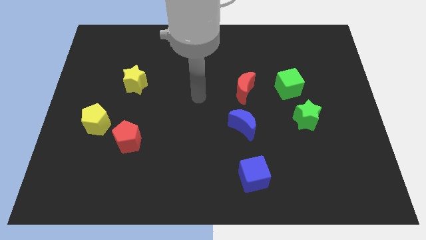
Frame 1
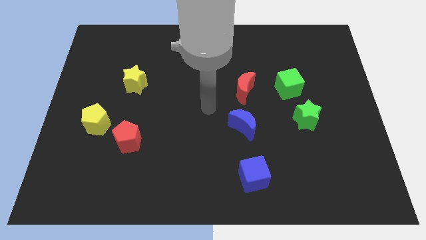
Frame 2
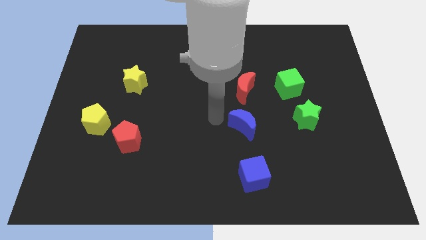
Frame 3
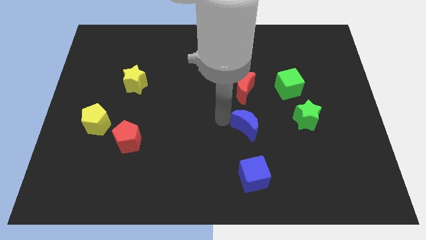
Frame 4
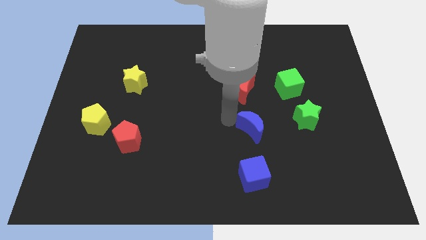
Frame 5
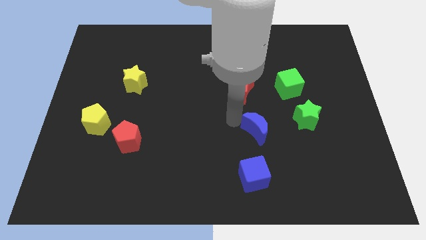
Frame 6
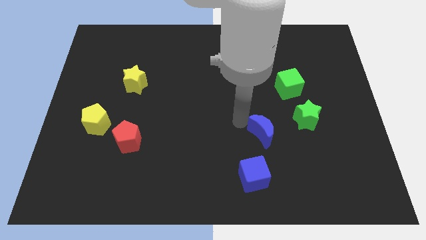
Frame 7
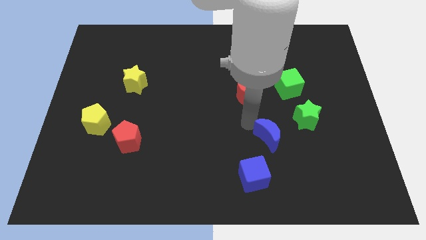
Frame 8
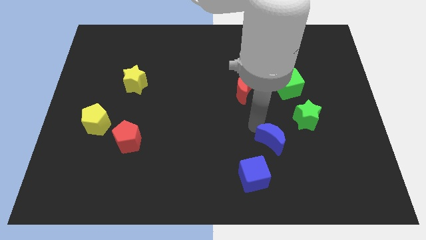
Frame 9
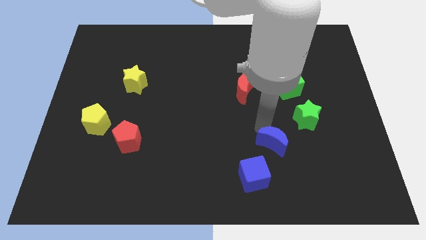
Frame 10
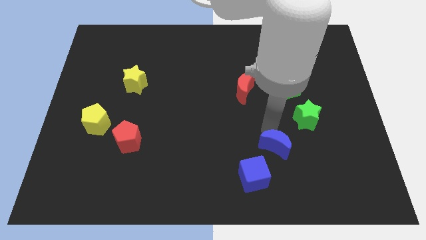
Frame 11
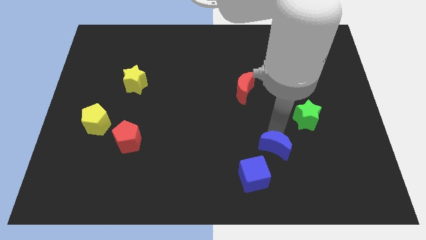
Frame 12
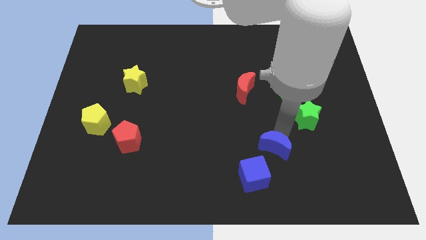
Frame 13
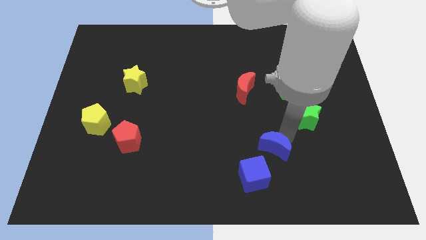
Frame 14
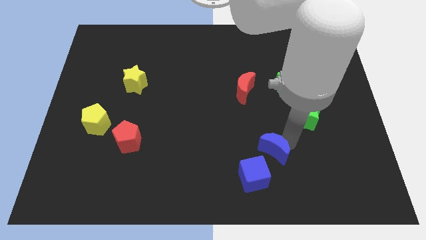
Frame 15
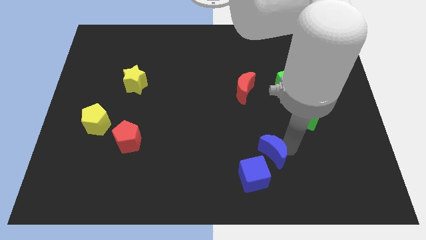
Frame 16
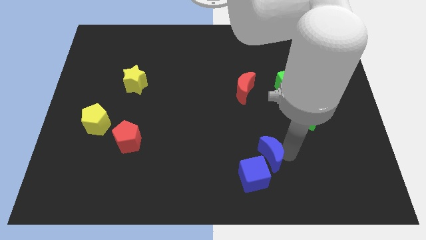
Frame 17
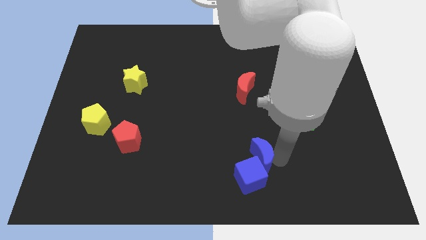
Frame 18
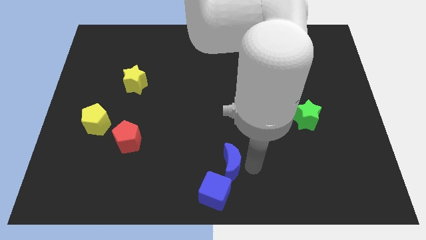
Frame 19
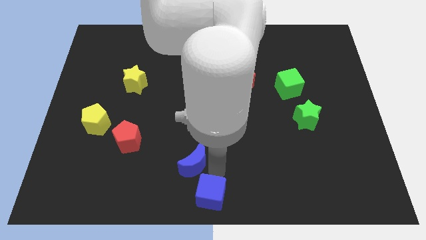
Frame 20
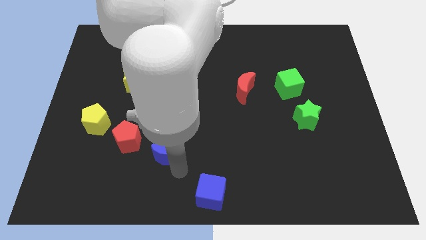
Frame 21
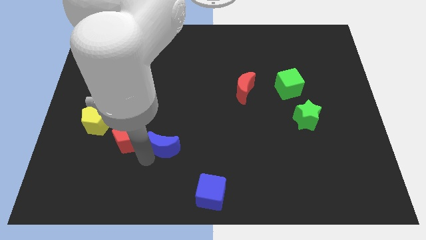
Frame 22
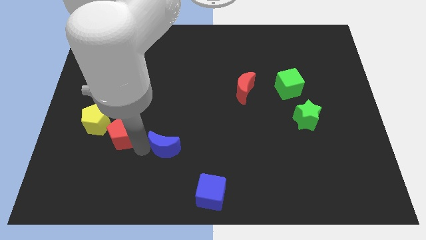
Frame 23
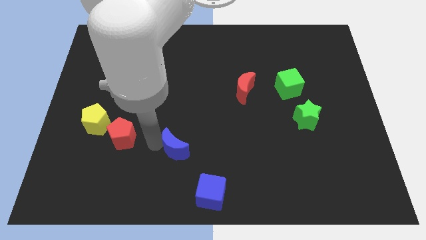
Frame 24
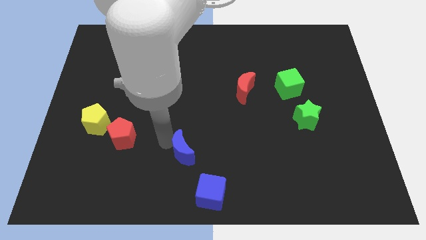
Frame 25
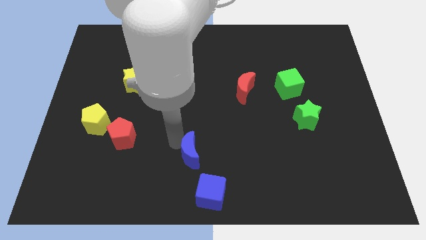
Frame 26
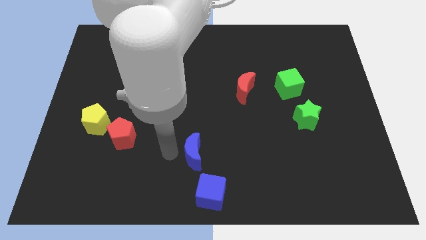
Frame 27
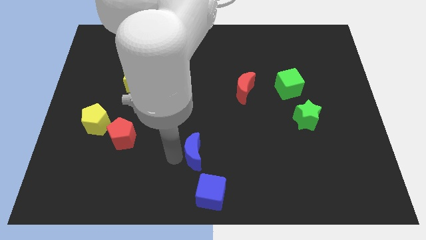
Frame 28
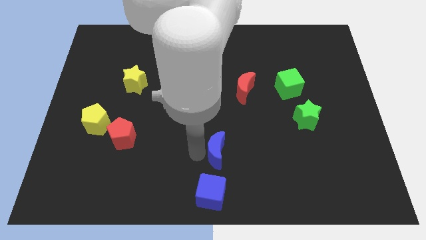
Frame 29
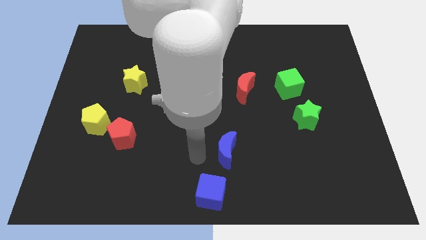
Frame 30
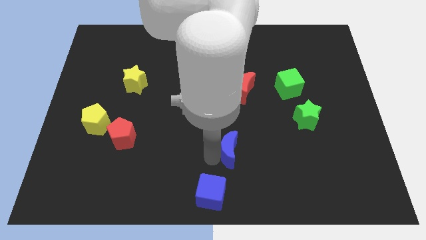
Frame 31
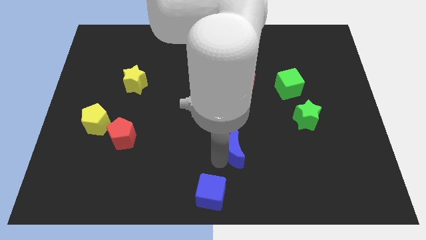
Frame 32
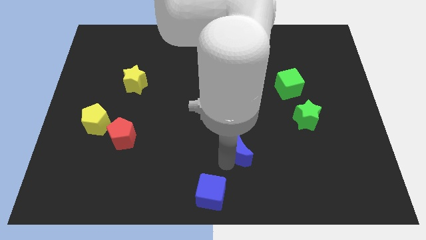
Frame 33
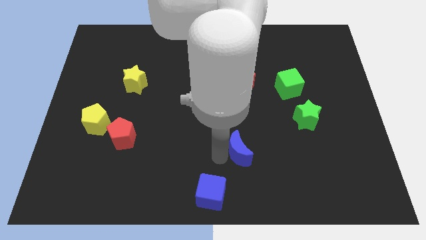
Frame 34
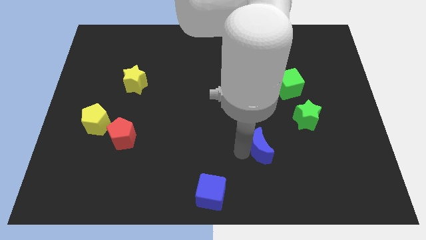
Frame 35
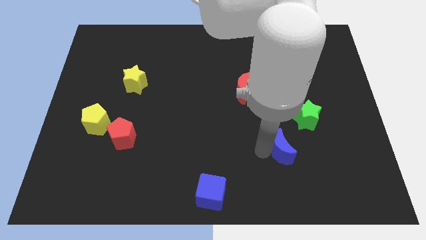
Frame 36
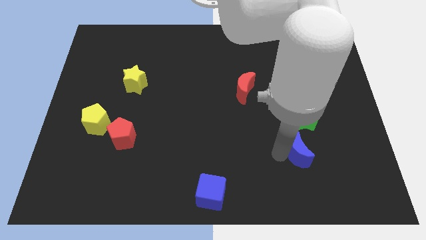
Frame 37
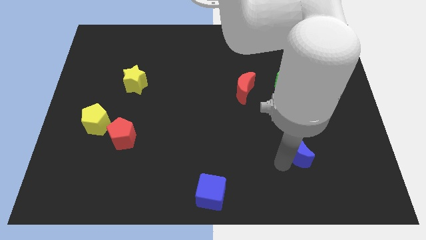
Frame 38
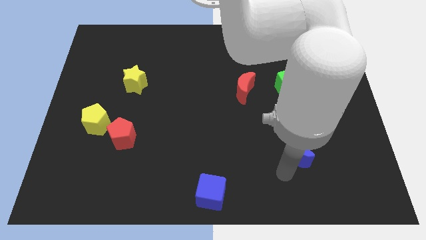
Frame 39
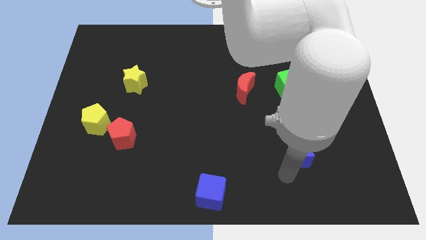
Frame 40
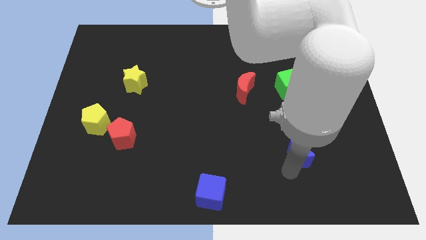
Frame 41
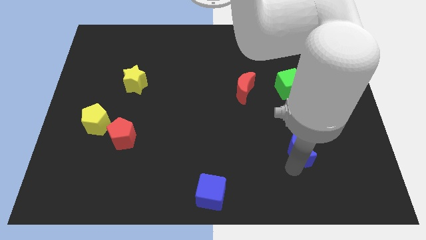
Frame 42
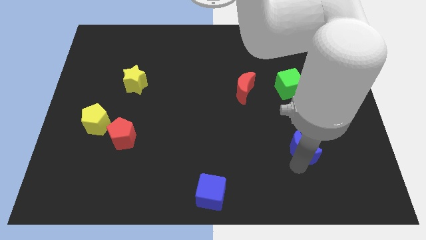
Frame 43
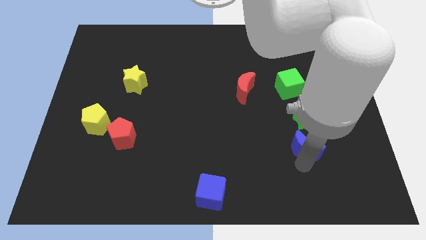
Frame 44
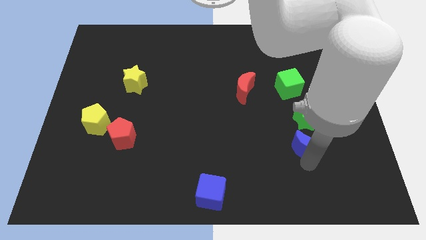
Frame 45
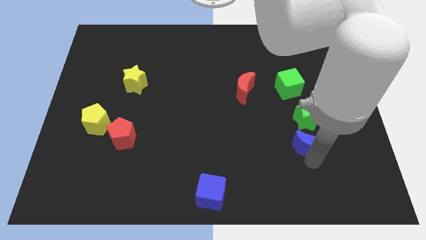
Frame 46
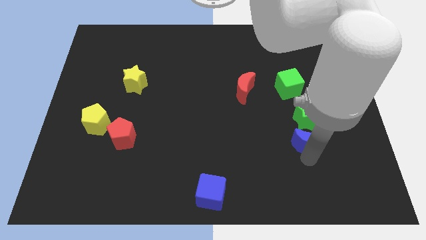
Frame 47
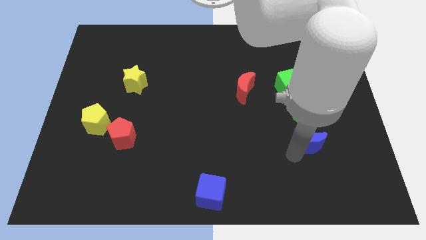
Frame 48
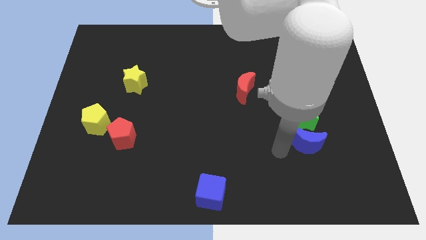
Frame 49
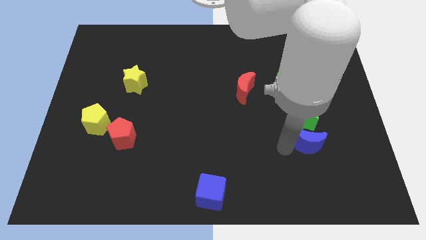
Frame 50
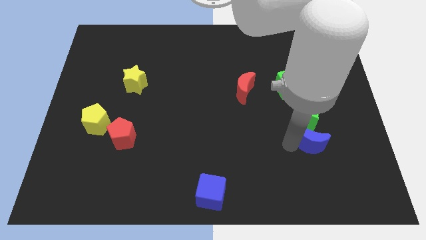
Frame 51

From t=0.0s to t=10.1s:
push the blue moon diagonally down and to the right of the green star

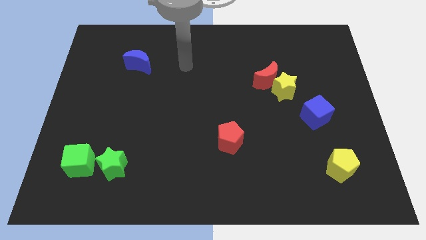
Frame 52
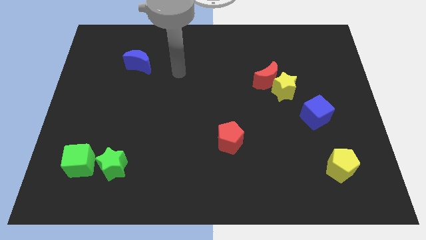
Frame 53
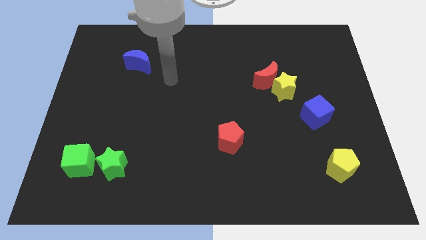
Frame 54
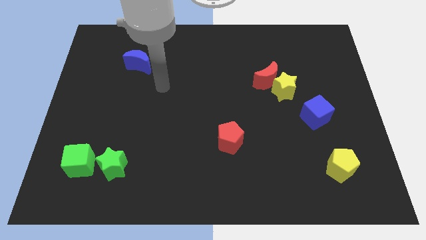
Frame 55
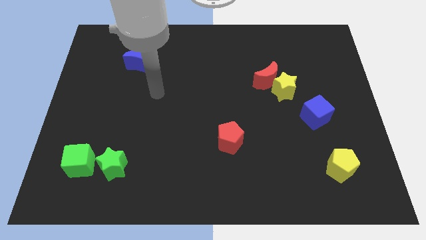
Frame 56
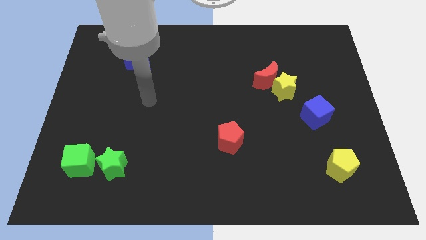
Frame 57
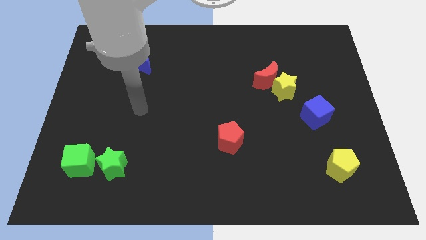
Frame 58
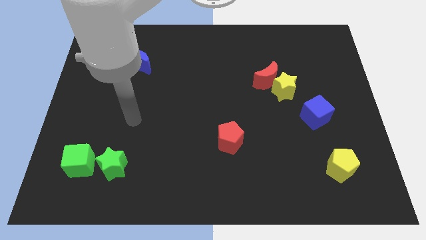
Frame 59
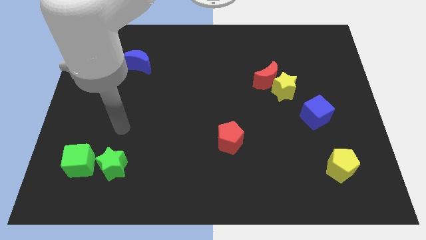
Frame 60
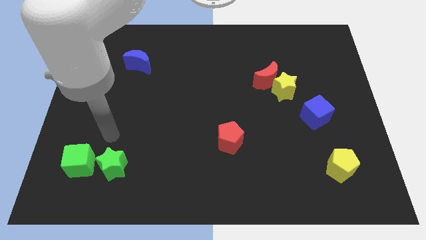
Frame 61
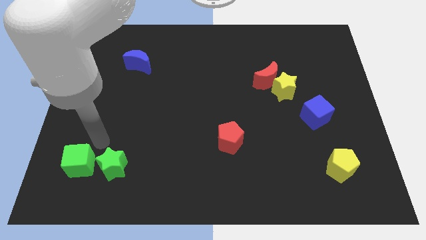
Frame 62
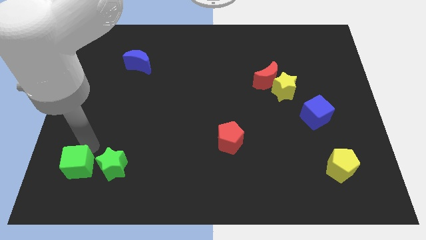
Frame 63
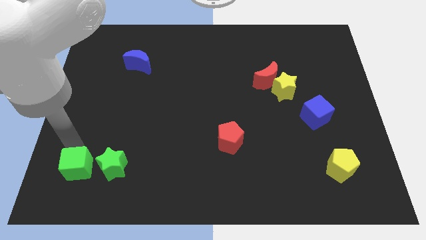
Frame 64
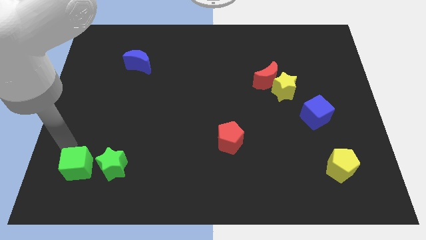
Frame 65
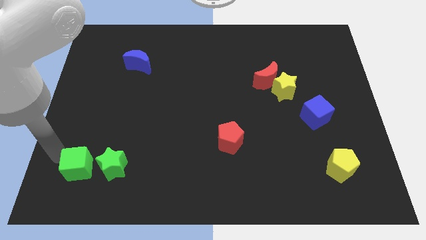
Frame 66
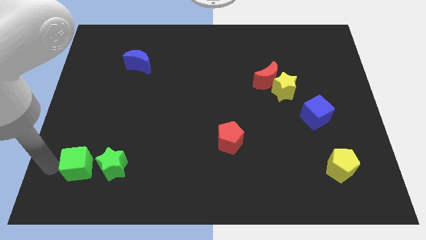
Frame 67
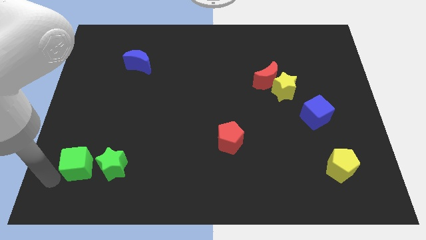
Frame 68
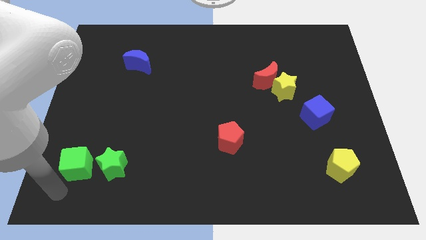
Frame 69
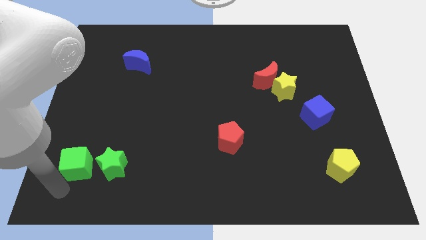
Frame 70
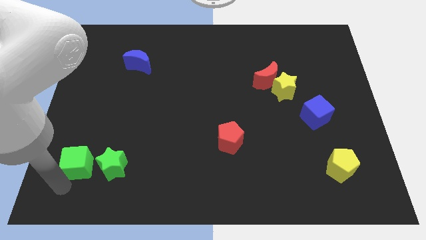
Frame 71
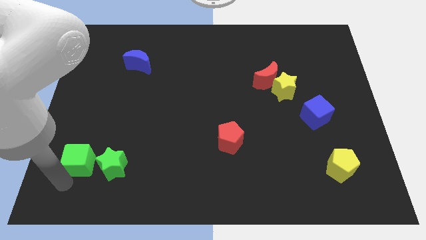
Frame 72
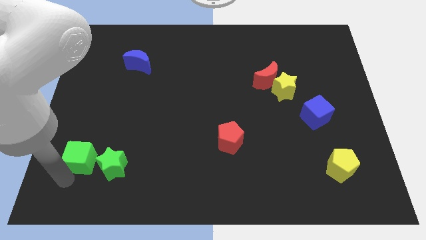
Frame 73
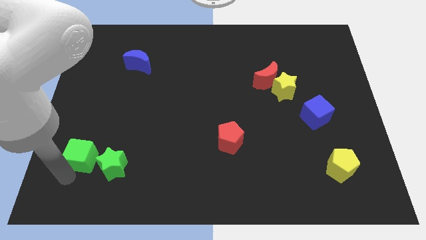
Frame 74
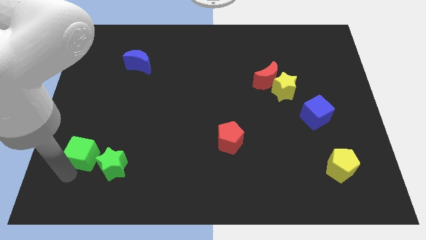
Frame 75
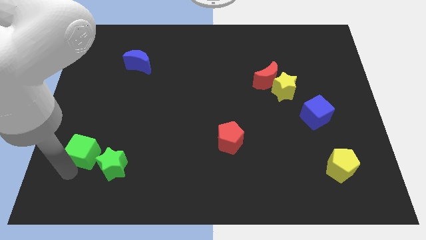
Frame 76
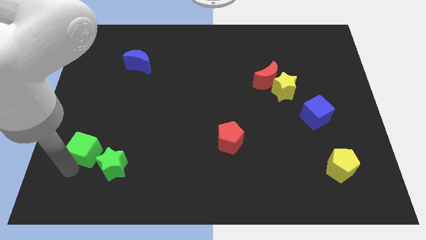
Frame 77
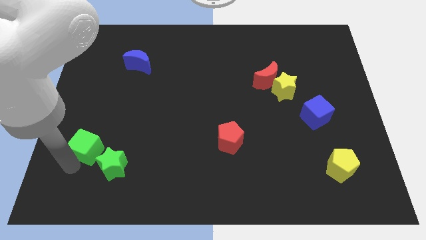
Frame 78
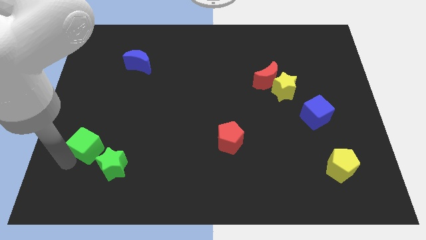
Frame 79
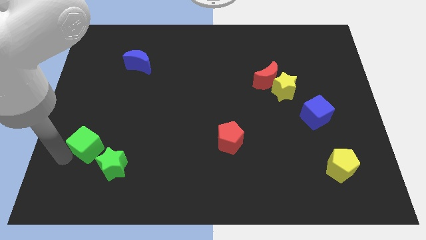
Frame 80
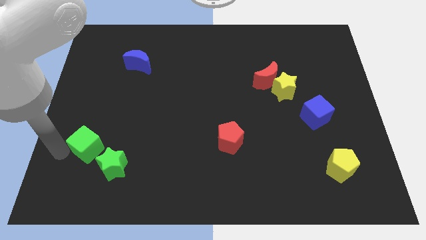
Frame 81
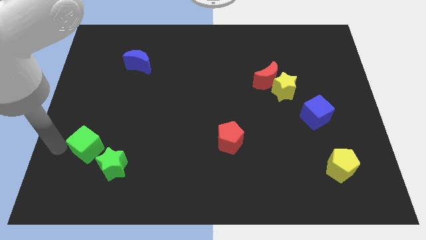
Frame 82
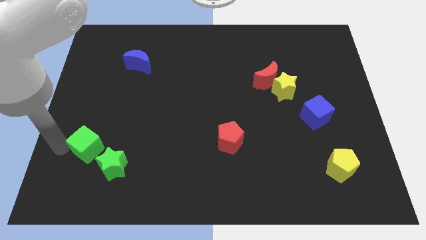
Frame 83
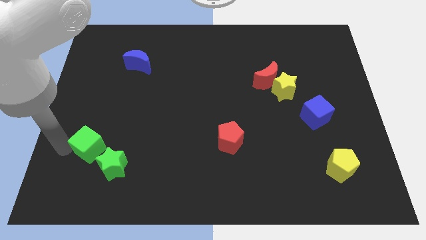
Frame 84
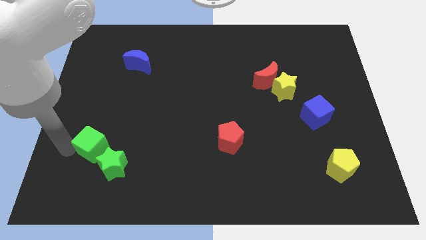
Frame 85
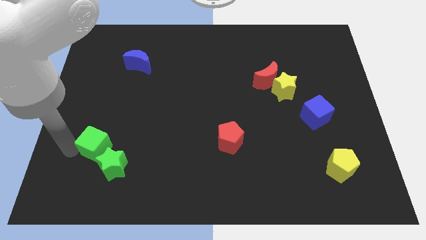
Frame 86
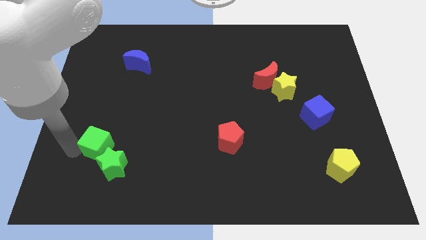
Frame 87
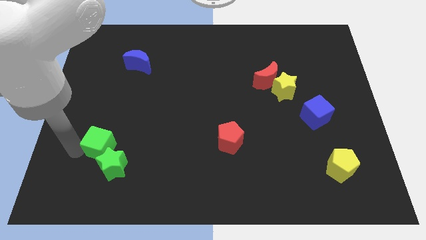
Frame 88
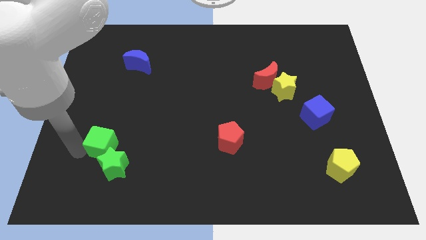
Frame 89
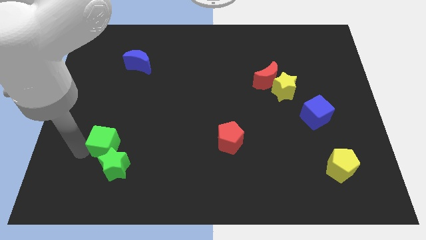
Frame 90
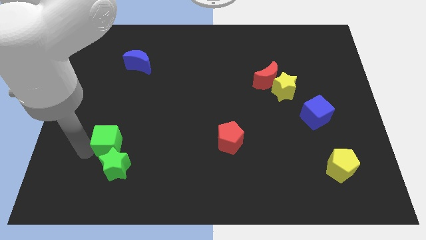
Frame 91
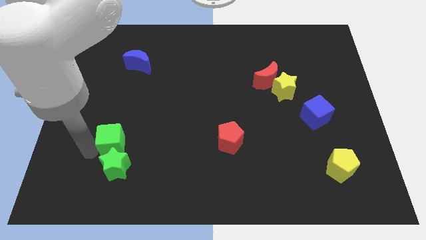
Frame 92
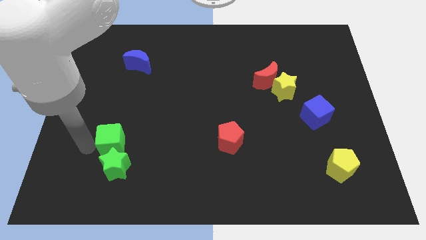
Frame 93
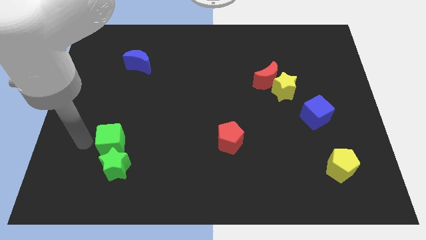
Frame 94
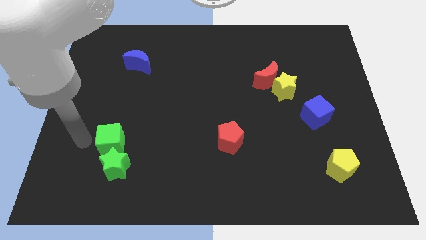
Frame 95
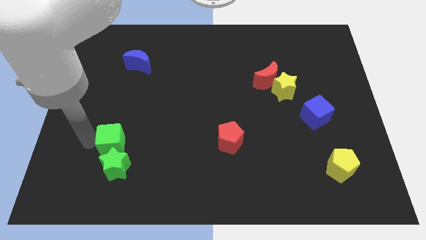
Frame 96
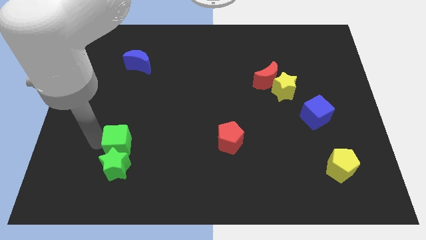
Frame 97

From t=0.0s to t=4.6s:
slide the green cube diagonally up and to the right of the green star
